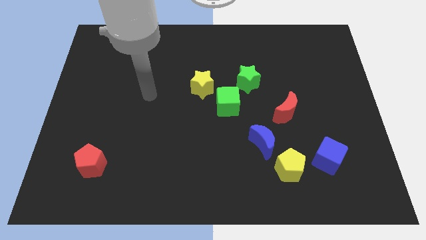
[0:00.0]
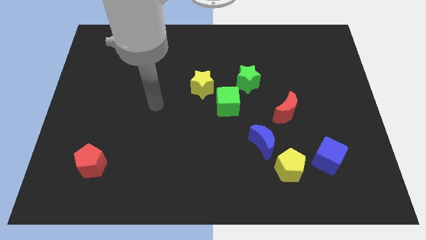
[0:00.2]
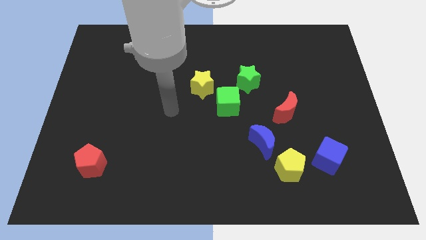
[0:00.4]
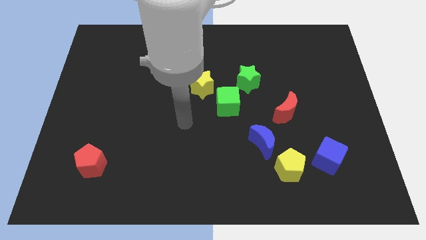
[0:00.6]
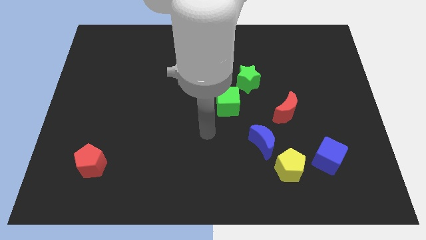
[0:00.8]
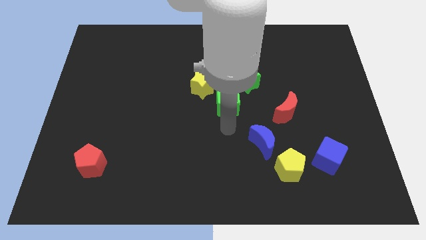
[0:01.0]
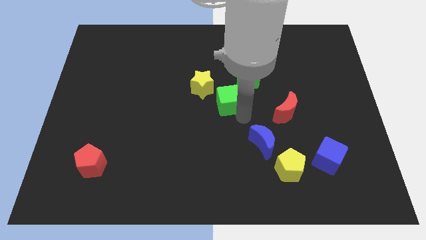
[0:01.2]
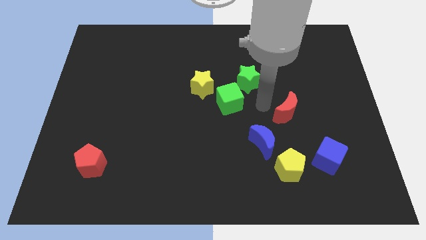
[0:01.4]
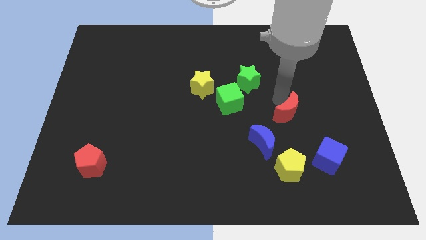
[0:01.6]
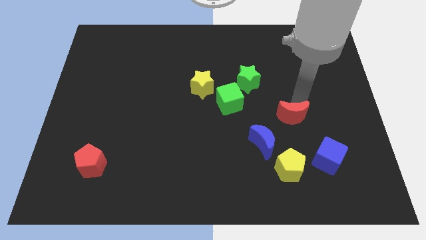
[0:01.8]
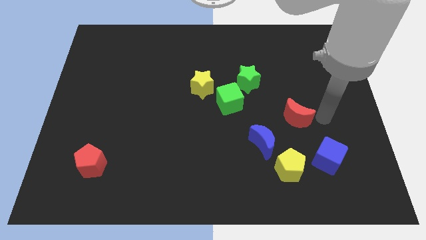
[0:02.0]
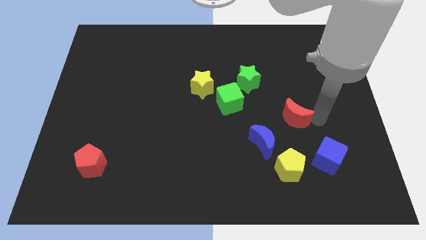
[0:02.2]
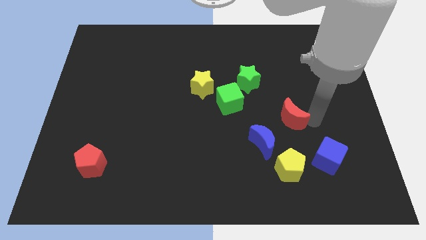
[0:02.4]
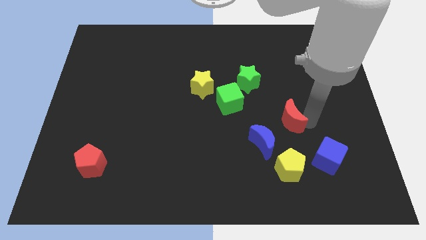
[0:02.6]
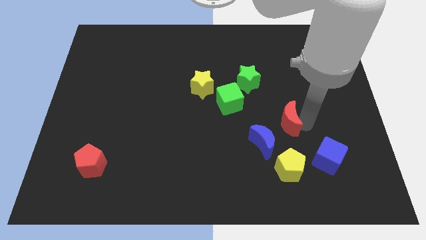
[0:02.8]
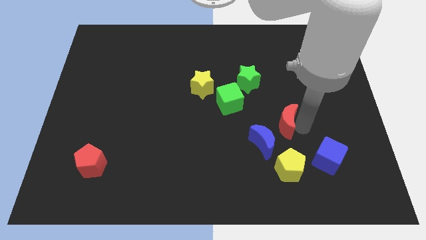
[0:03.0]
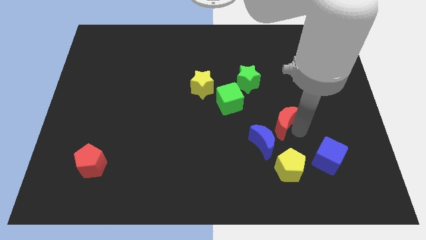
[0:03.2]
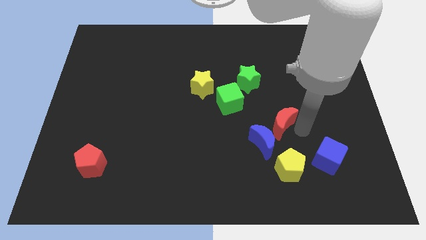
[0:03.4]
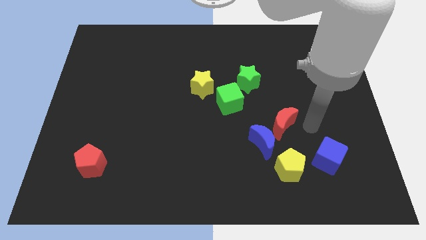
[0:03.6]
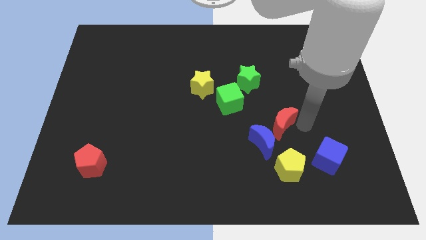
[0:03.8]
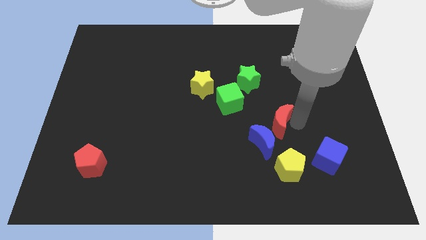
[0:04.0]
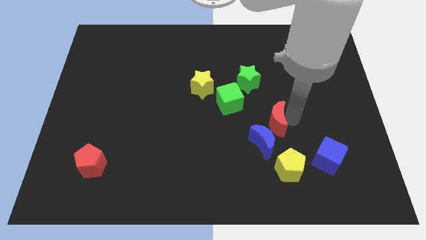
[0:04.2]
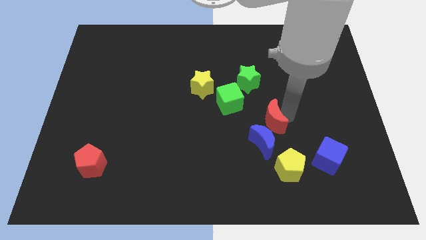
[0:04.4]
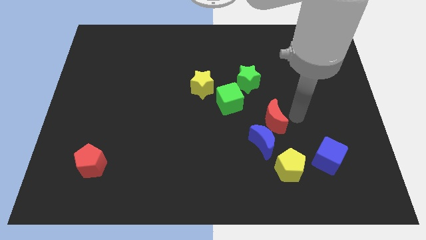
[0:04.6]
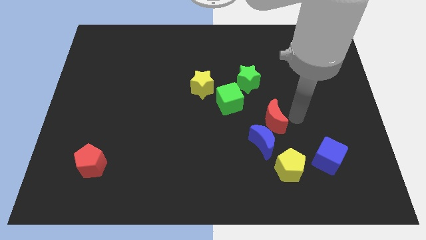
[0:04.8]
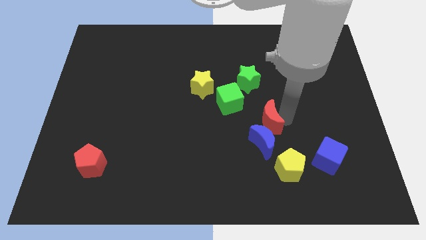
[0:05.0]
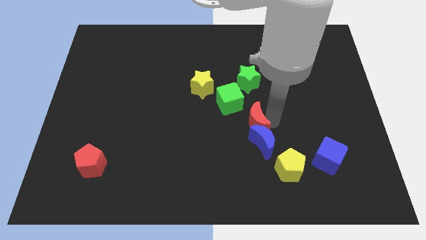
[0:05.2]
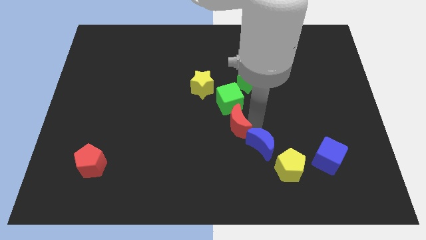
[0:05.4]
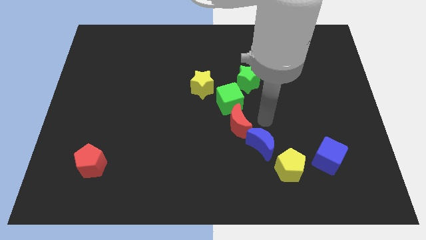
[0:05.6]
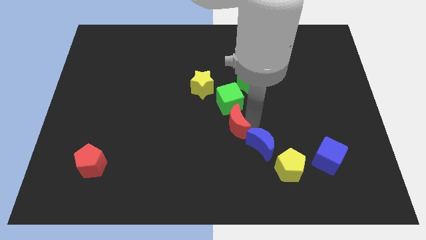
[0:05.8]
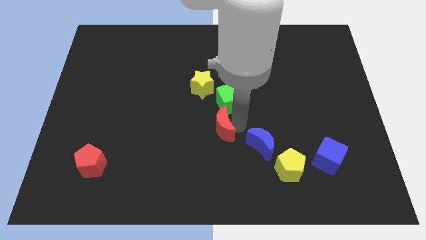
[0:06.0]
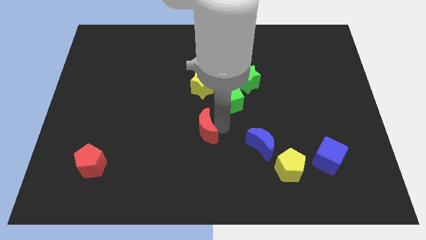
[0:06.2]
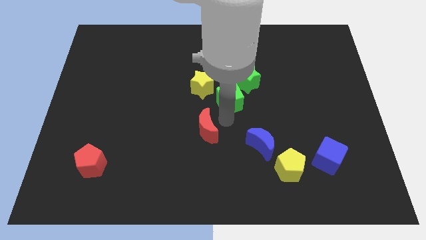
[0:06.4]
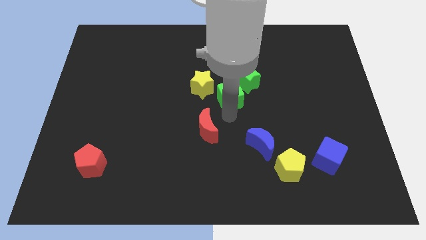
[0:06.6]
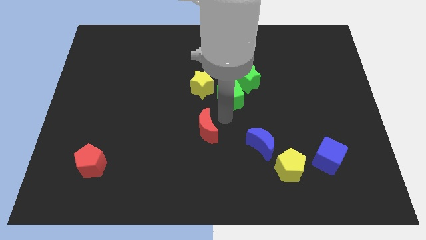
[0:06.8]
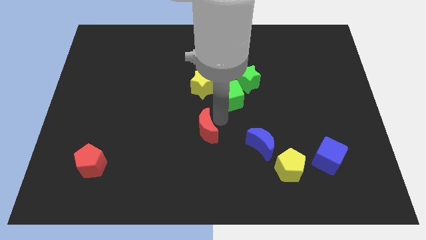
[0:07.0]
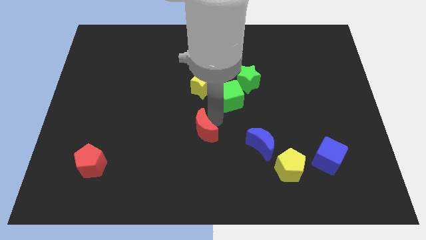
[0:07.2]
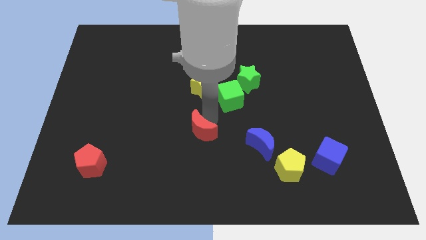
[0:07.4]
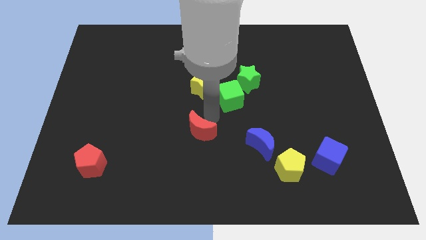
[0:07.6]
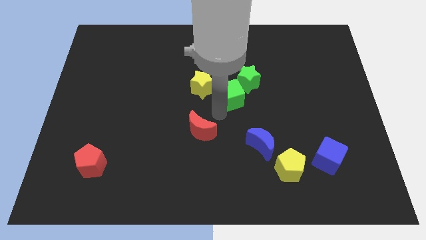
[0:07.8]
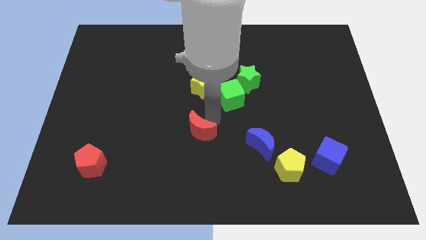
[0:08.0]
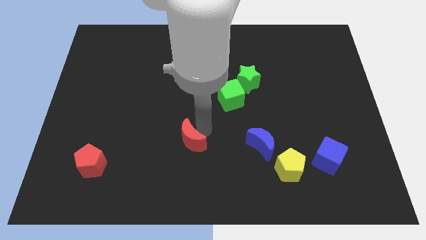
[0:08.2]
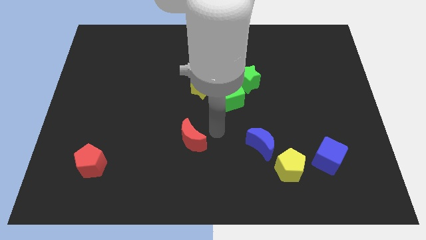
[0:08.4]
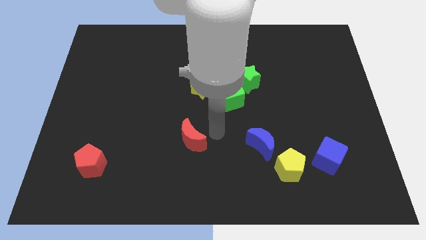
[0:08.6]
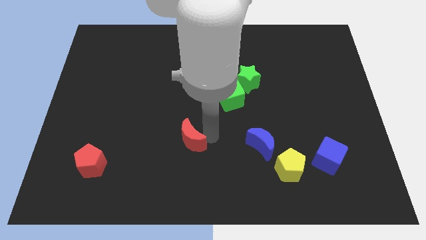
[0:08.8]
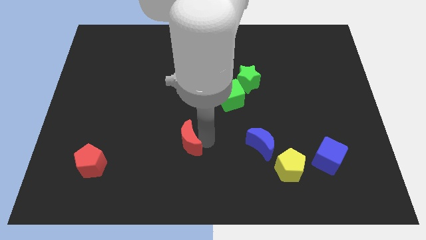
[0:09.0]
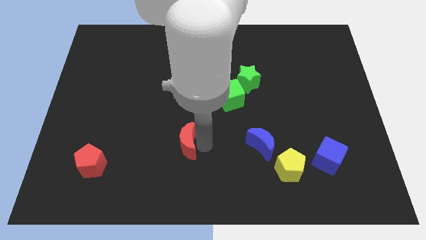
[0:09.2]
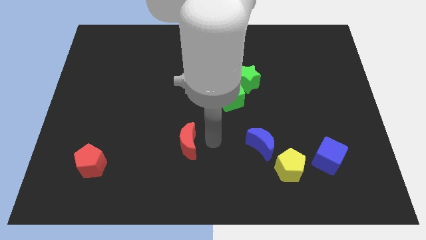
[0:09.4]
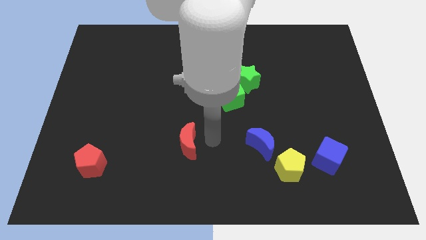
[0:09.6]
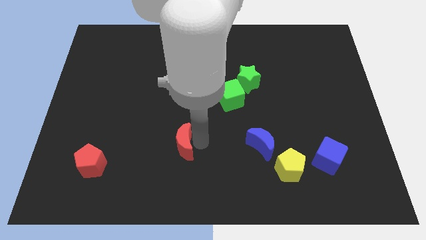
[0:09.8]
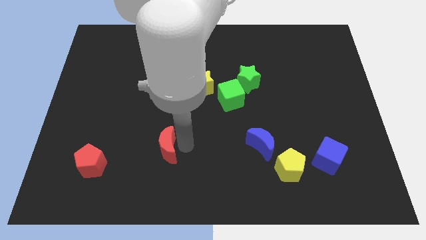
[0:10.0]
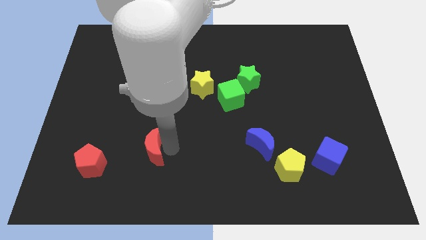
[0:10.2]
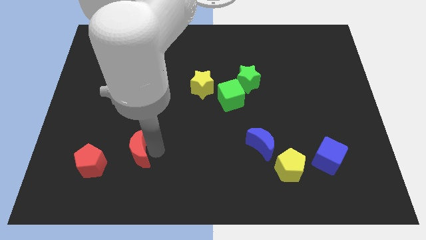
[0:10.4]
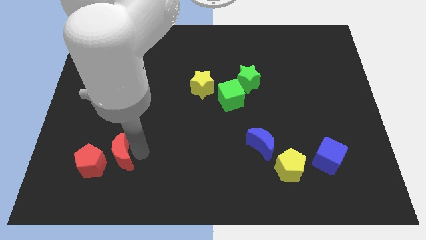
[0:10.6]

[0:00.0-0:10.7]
slide the red moon next to the red pentagon

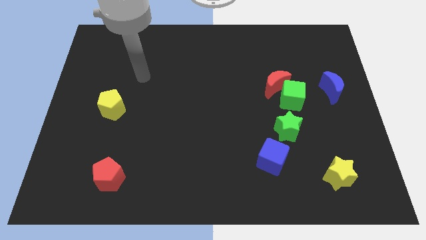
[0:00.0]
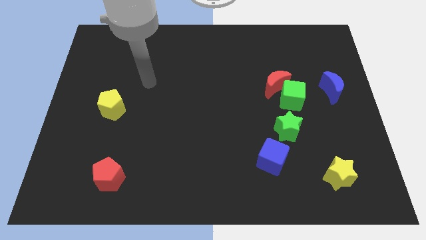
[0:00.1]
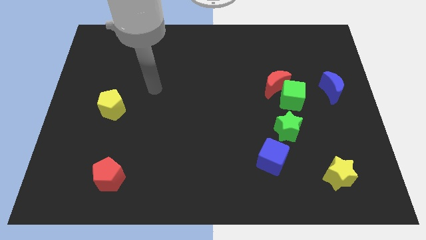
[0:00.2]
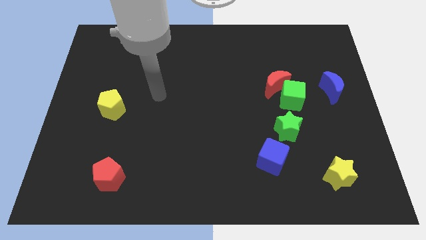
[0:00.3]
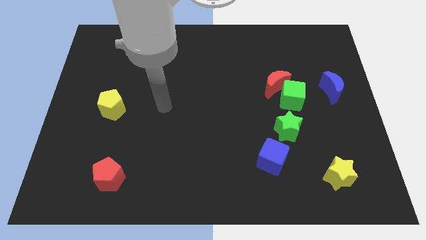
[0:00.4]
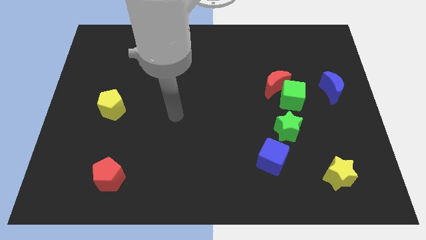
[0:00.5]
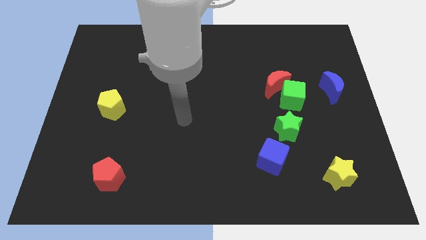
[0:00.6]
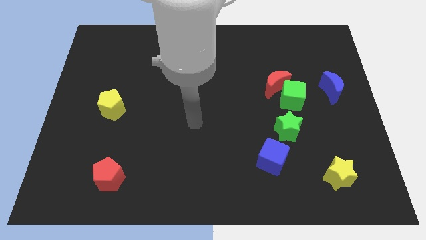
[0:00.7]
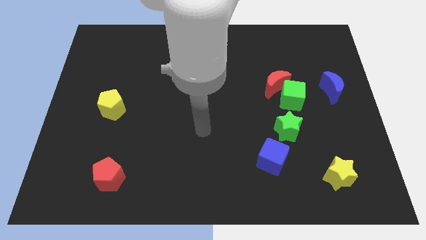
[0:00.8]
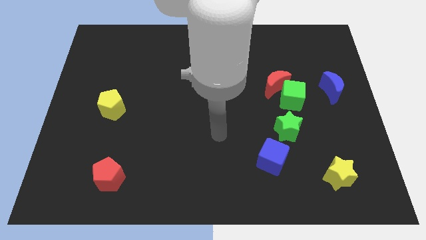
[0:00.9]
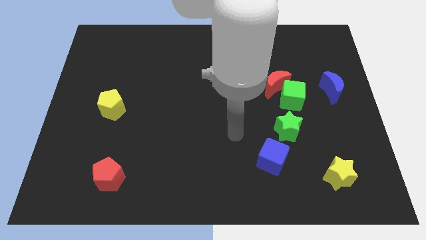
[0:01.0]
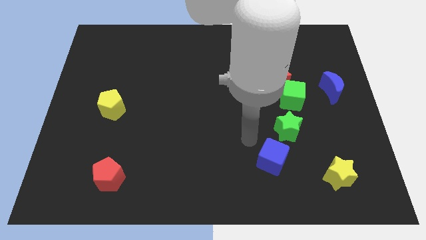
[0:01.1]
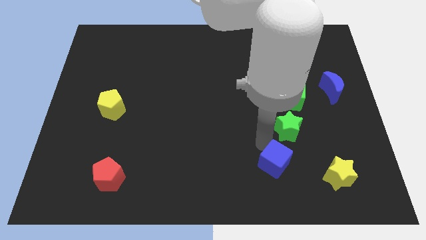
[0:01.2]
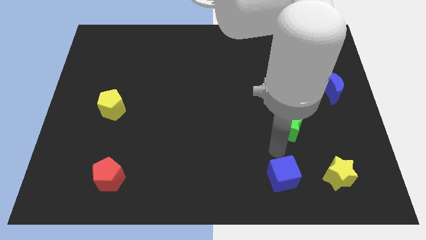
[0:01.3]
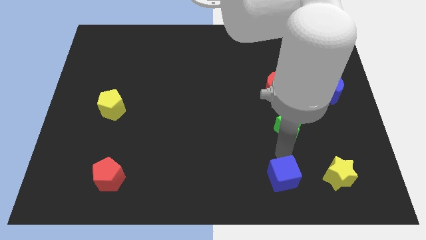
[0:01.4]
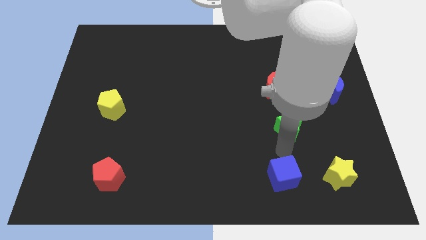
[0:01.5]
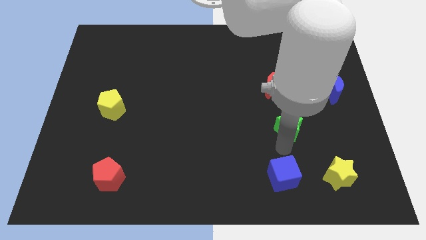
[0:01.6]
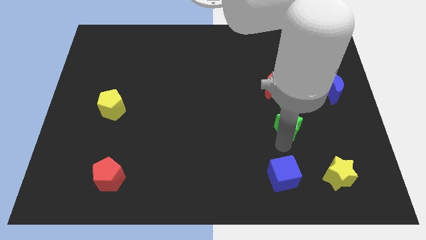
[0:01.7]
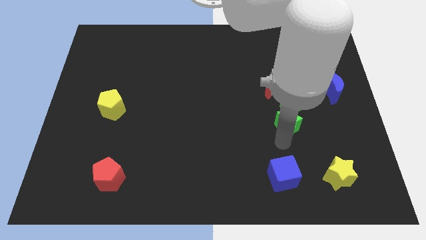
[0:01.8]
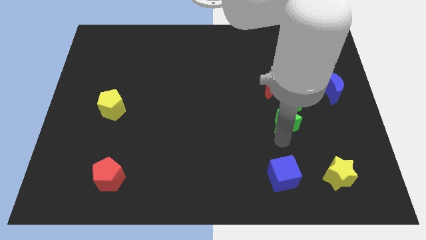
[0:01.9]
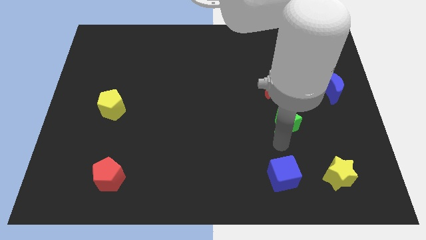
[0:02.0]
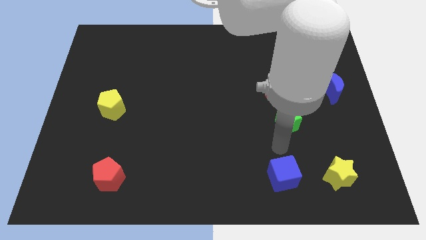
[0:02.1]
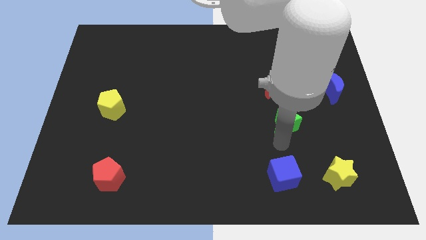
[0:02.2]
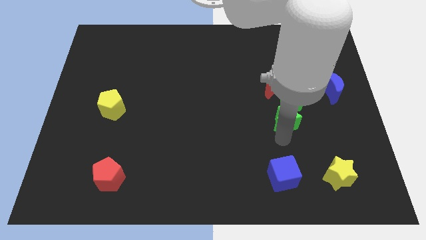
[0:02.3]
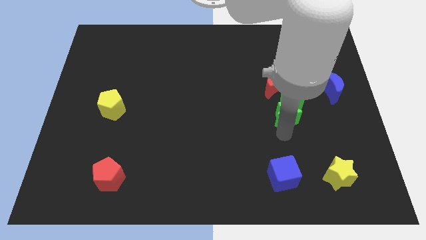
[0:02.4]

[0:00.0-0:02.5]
push the green star next to the green cube
